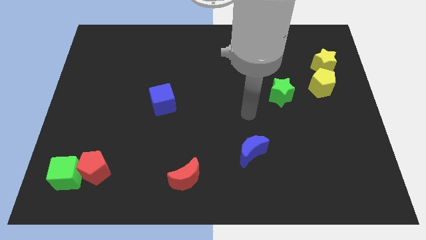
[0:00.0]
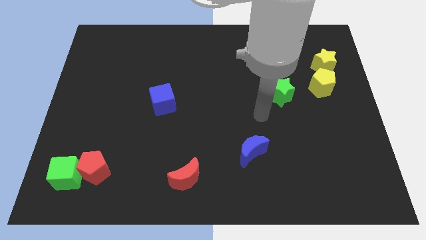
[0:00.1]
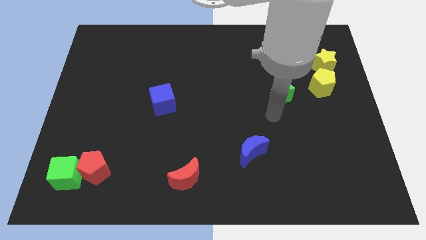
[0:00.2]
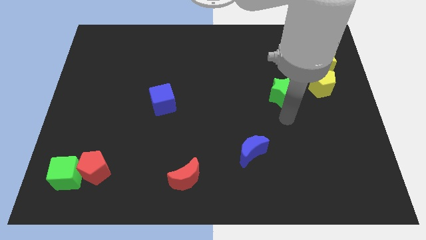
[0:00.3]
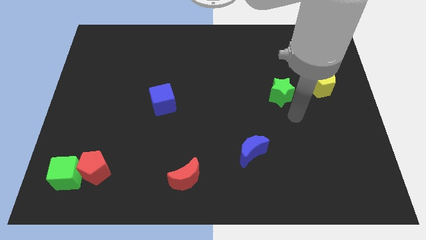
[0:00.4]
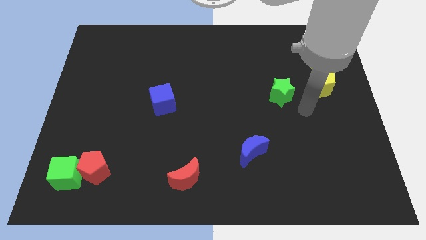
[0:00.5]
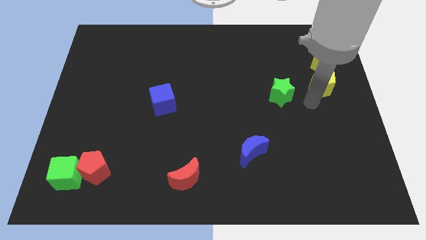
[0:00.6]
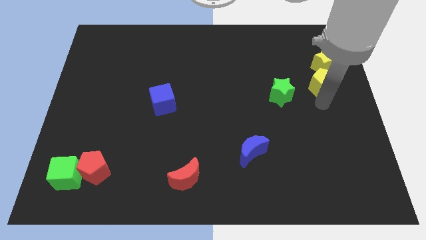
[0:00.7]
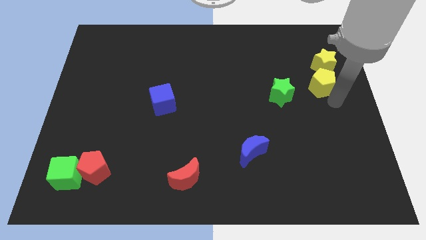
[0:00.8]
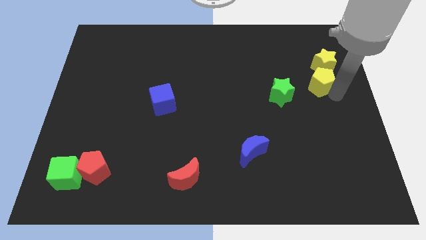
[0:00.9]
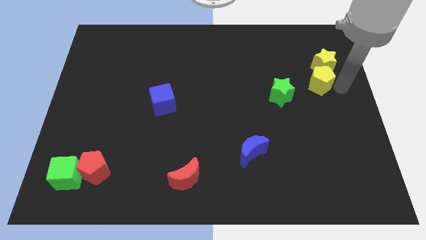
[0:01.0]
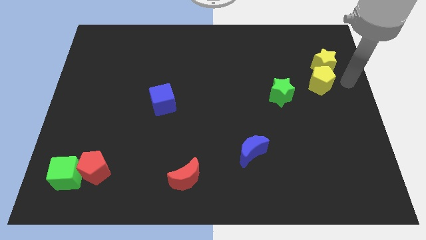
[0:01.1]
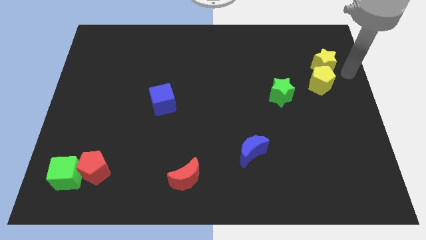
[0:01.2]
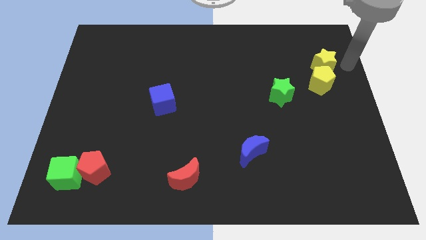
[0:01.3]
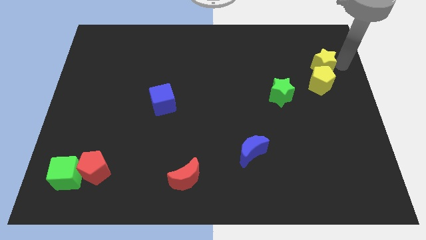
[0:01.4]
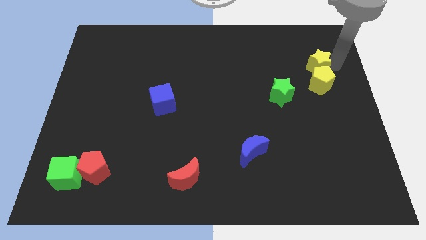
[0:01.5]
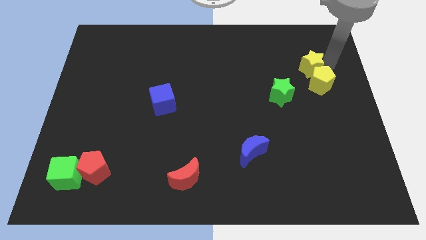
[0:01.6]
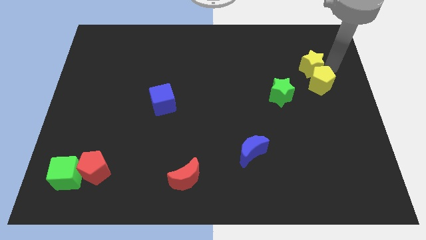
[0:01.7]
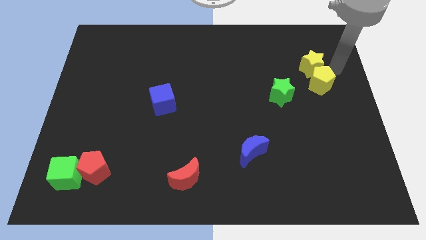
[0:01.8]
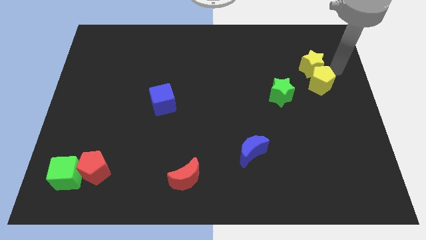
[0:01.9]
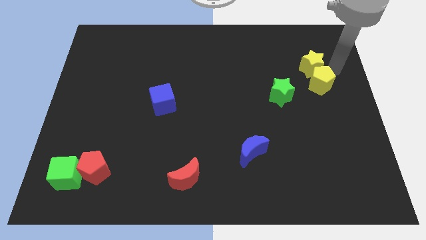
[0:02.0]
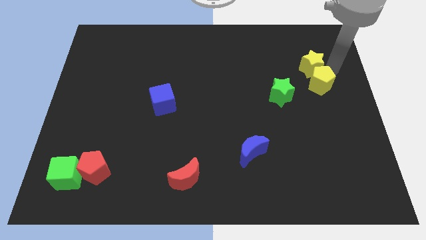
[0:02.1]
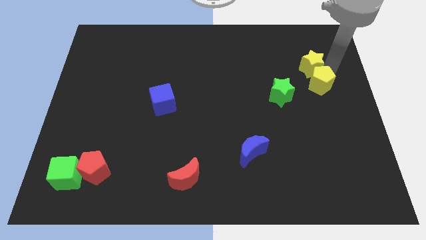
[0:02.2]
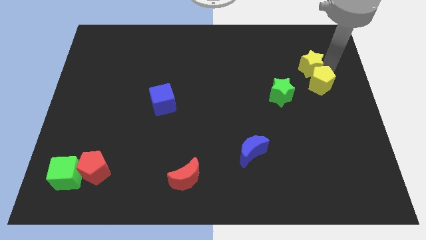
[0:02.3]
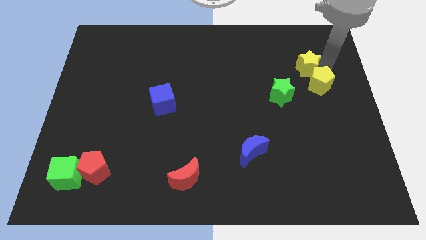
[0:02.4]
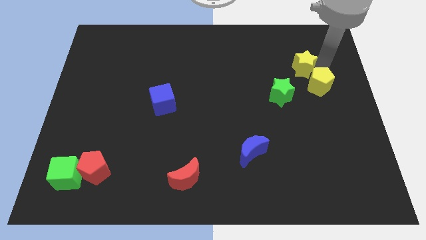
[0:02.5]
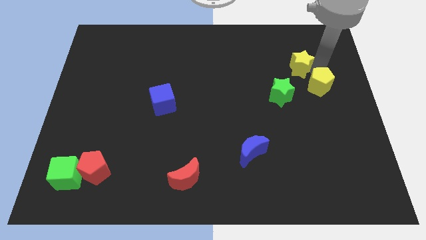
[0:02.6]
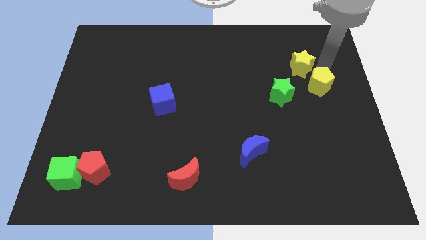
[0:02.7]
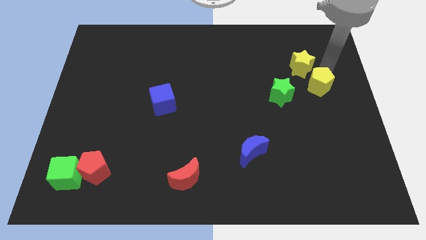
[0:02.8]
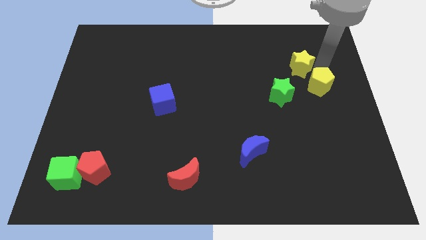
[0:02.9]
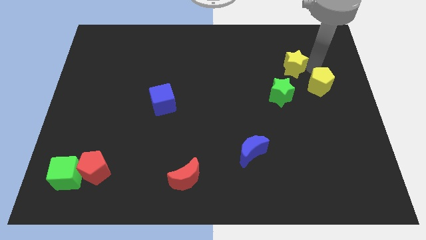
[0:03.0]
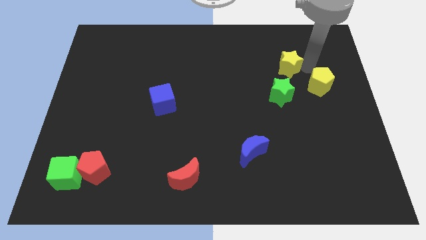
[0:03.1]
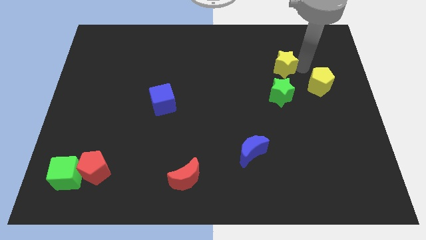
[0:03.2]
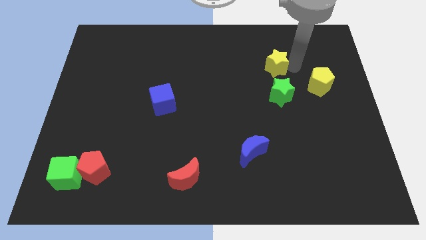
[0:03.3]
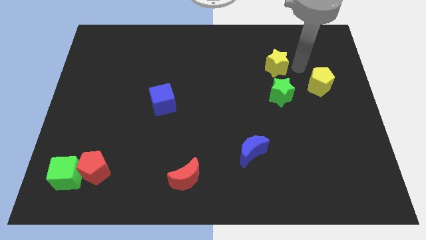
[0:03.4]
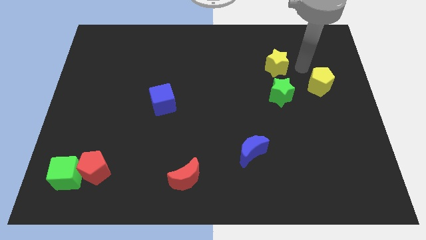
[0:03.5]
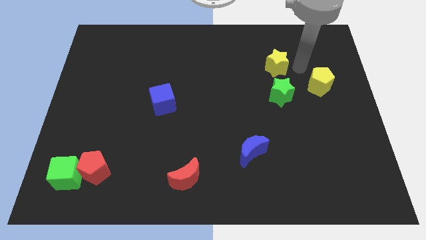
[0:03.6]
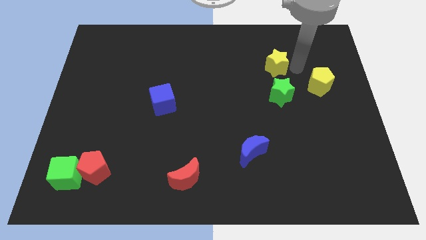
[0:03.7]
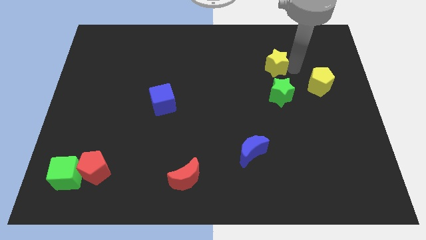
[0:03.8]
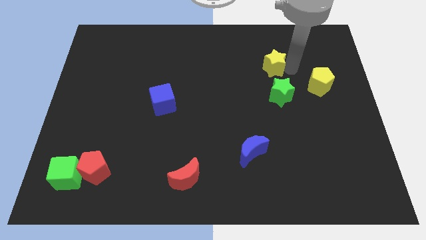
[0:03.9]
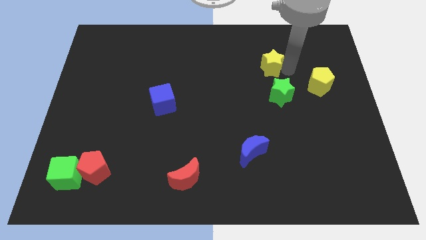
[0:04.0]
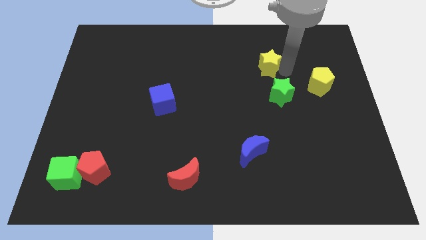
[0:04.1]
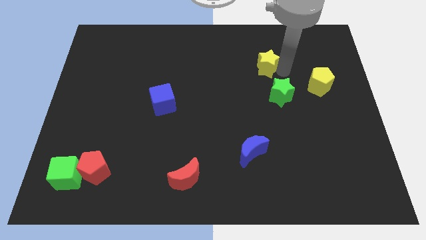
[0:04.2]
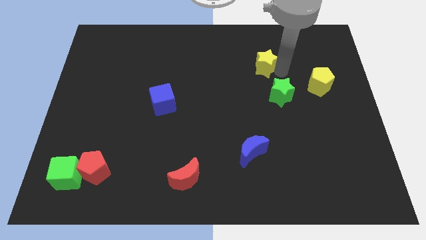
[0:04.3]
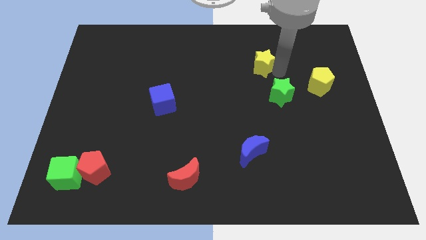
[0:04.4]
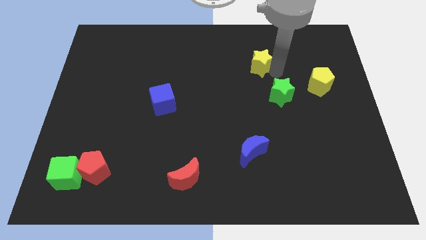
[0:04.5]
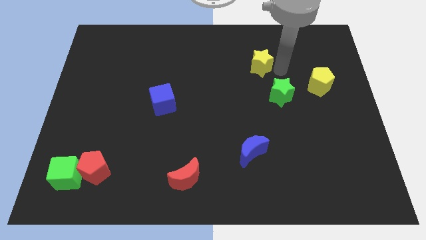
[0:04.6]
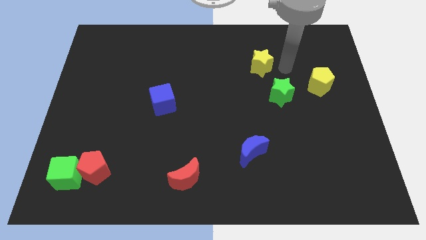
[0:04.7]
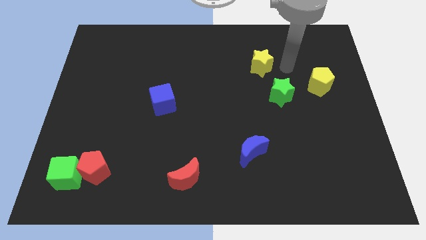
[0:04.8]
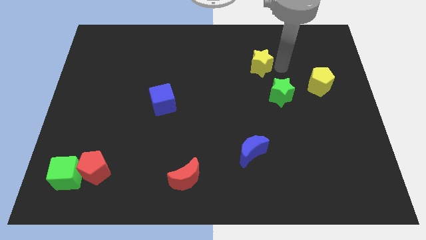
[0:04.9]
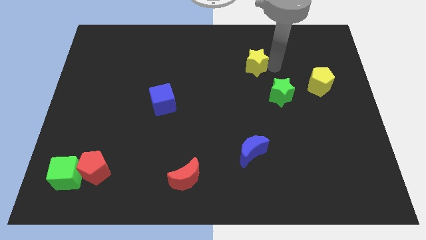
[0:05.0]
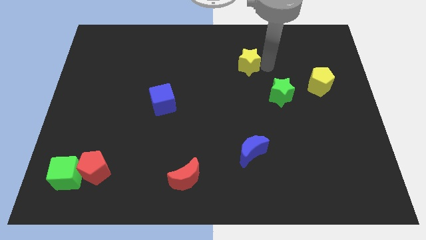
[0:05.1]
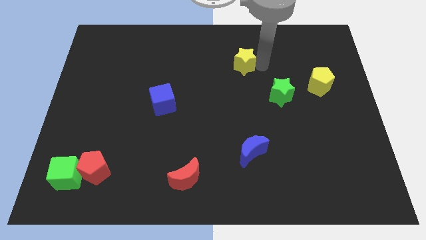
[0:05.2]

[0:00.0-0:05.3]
slide the yellow star left

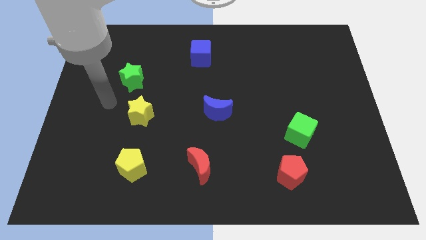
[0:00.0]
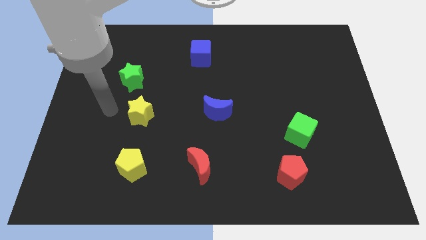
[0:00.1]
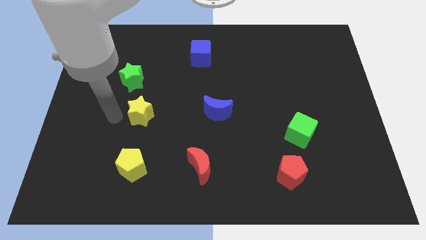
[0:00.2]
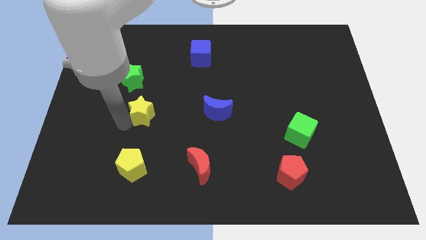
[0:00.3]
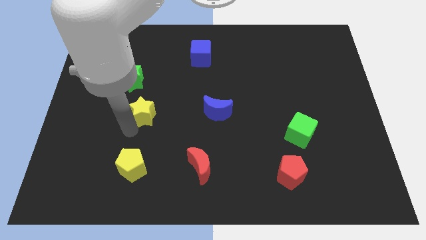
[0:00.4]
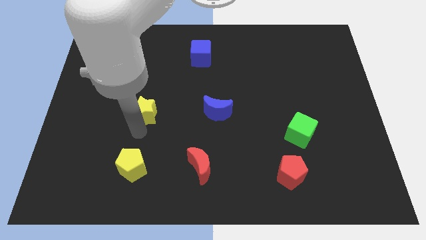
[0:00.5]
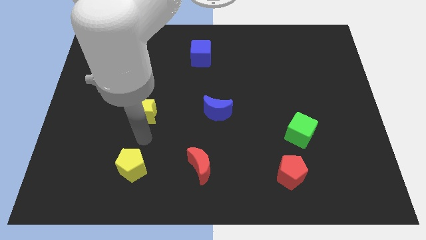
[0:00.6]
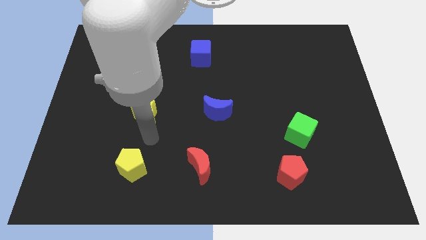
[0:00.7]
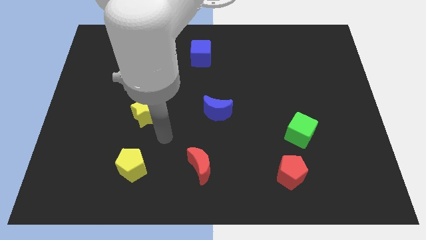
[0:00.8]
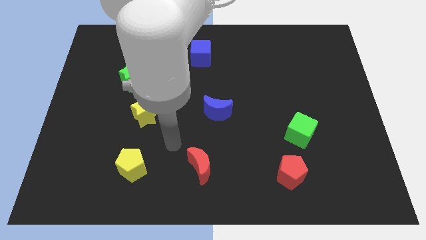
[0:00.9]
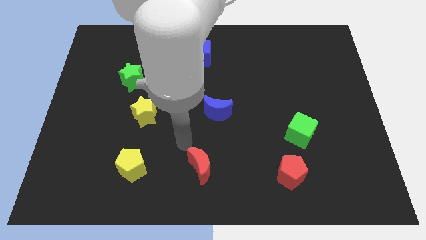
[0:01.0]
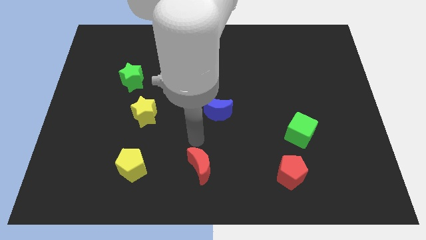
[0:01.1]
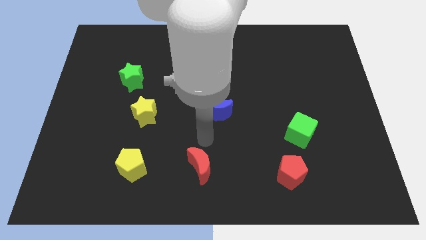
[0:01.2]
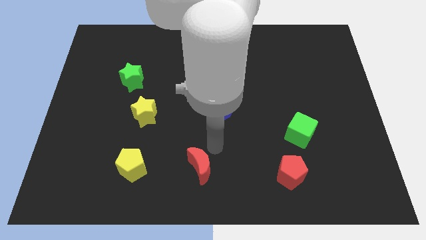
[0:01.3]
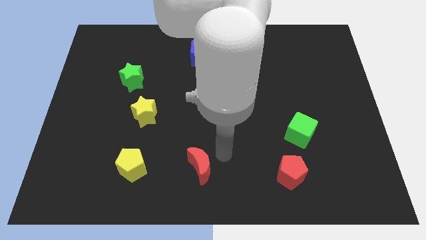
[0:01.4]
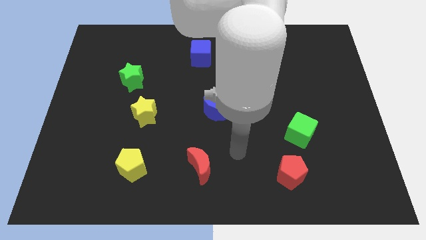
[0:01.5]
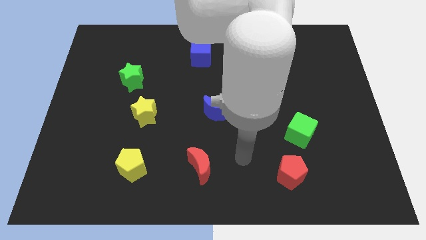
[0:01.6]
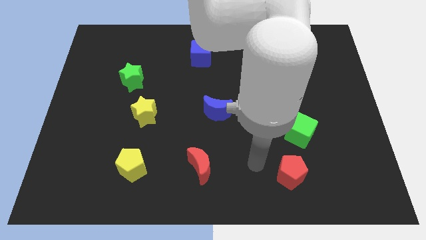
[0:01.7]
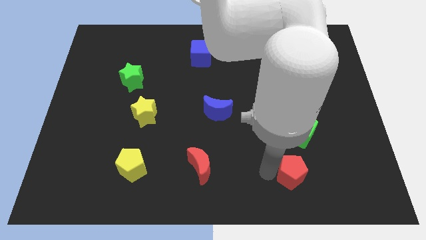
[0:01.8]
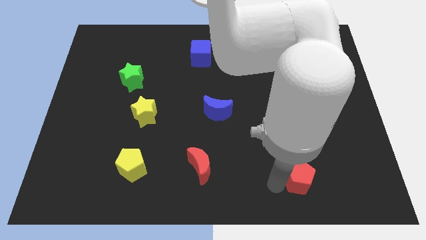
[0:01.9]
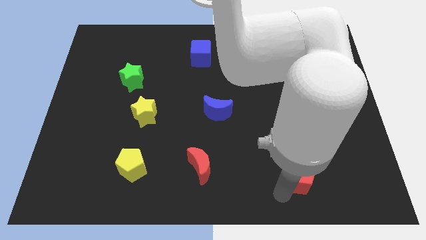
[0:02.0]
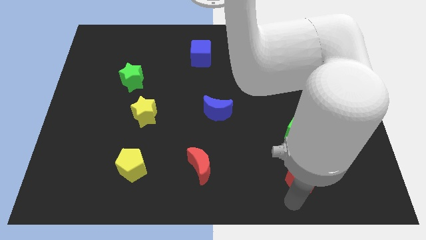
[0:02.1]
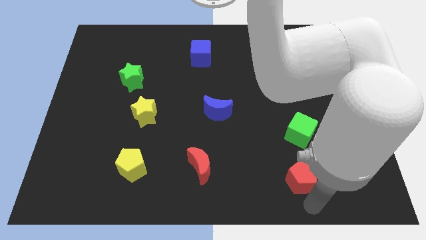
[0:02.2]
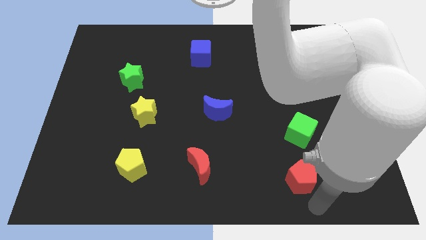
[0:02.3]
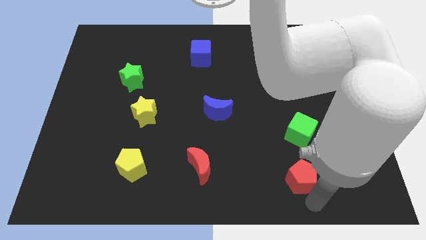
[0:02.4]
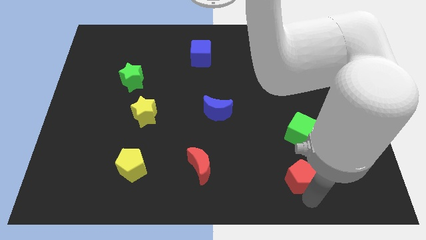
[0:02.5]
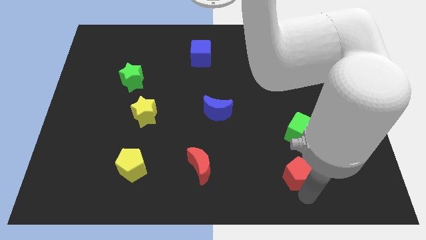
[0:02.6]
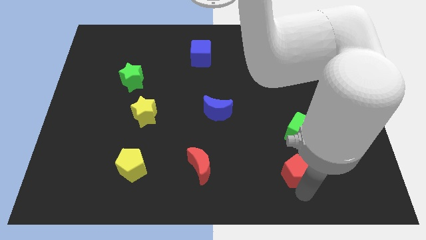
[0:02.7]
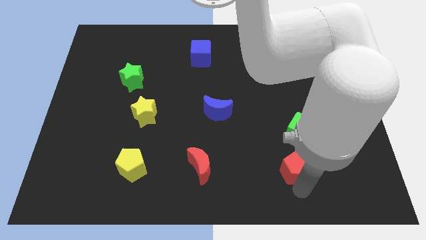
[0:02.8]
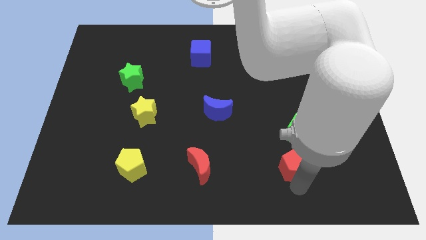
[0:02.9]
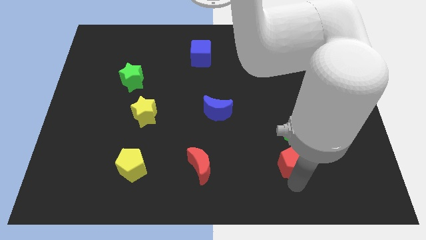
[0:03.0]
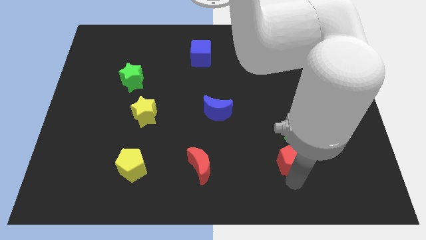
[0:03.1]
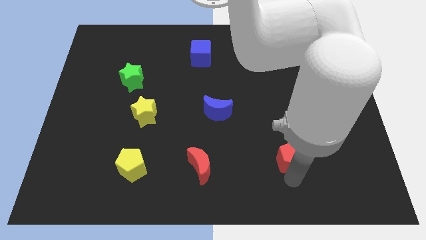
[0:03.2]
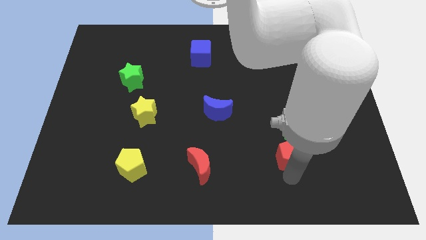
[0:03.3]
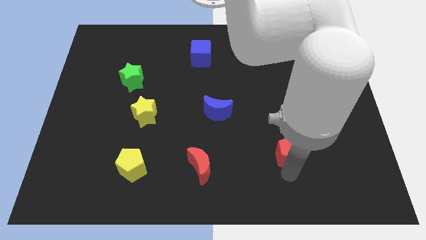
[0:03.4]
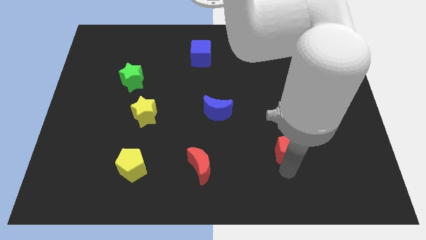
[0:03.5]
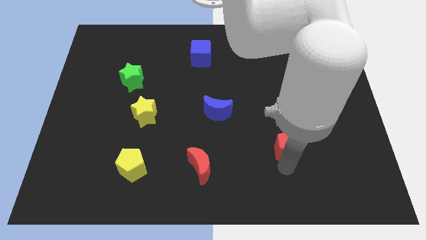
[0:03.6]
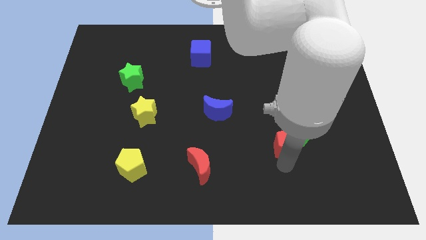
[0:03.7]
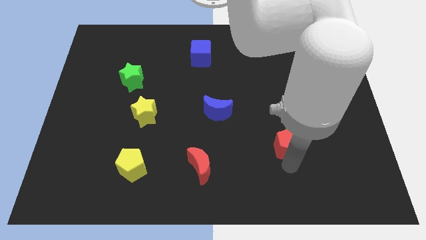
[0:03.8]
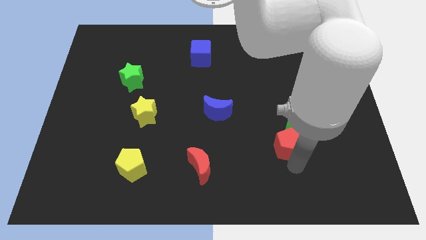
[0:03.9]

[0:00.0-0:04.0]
push the red pentagon slightly up
